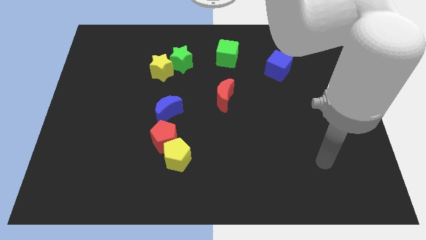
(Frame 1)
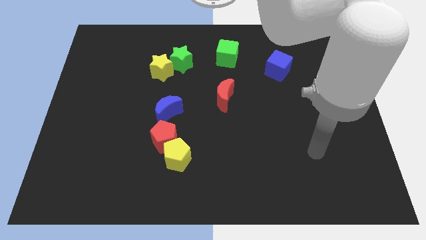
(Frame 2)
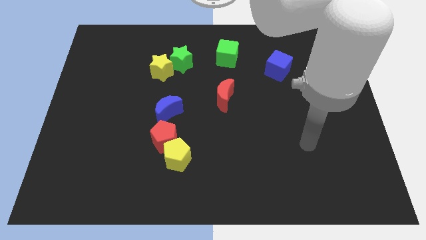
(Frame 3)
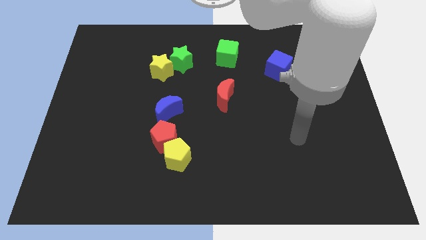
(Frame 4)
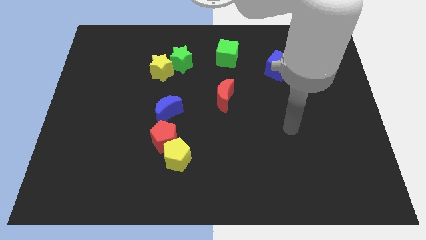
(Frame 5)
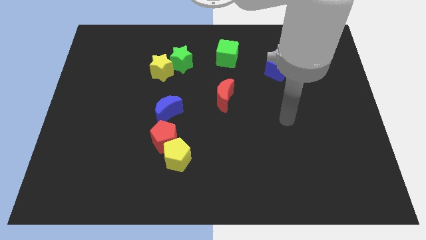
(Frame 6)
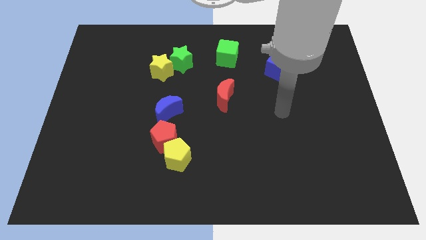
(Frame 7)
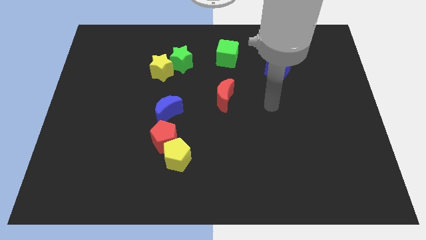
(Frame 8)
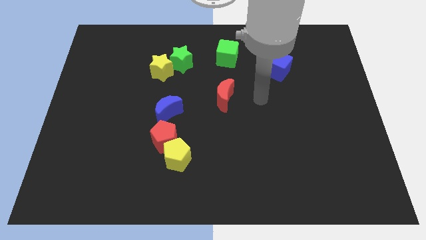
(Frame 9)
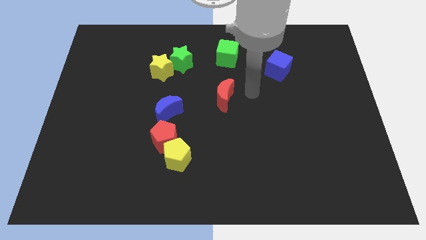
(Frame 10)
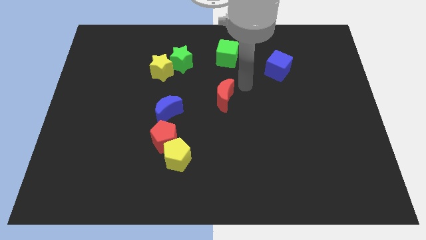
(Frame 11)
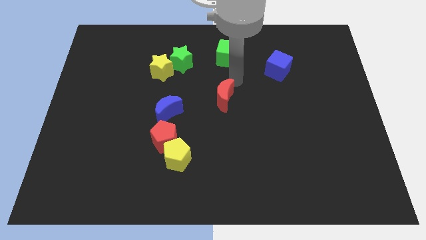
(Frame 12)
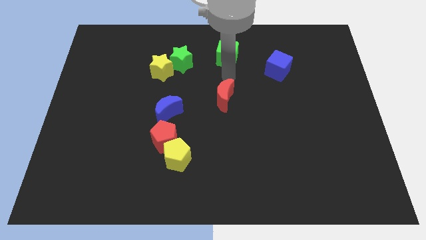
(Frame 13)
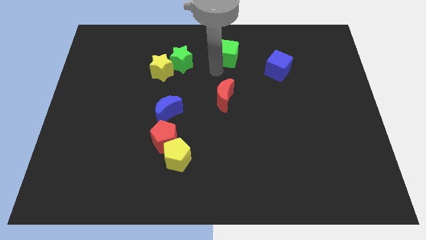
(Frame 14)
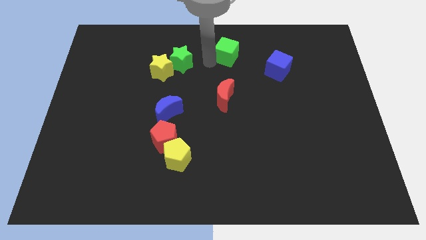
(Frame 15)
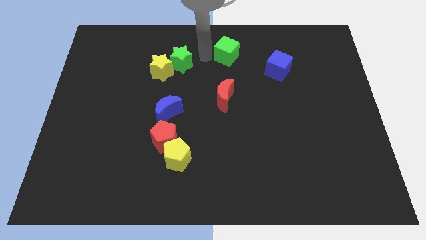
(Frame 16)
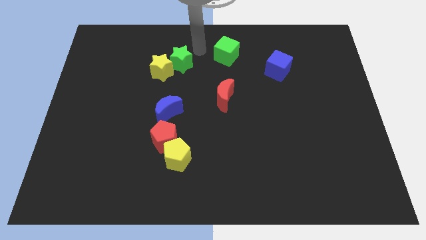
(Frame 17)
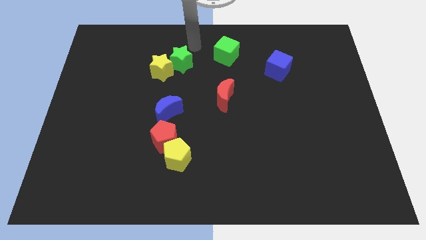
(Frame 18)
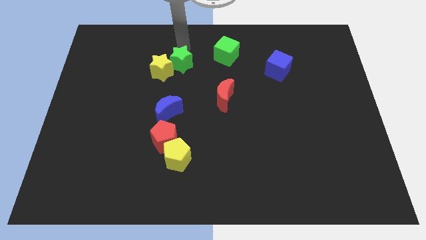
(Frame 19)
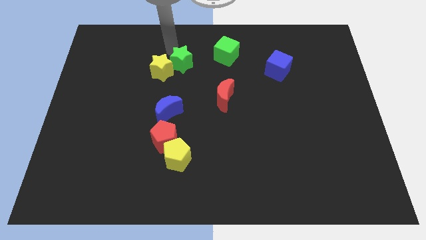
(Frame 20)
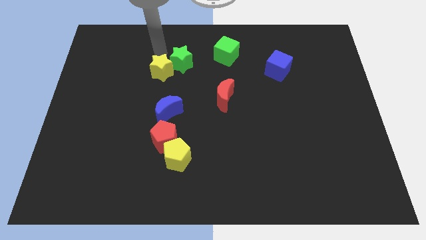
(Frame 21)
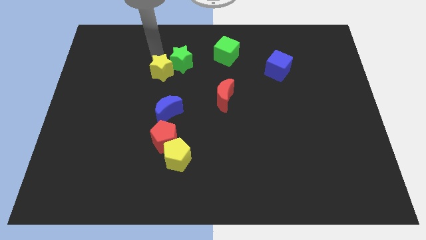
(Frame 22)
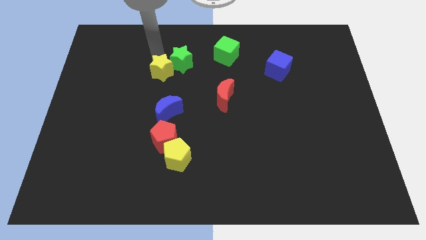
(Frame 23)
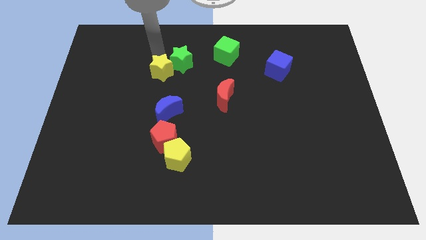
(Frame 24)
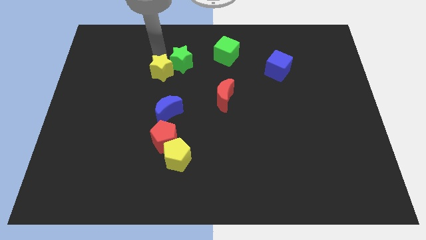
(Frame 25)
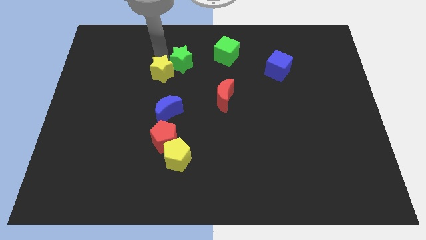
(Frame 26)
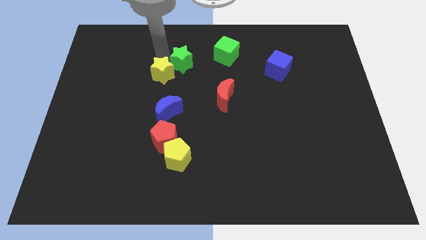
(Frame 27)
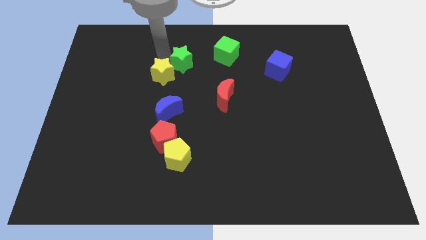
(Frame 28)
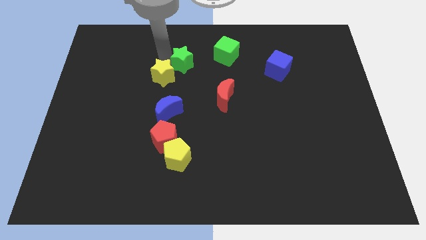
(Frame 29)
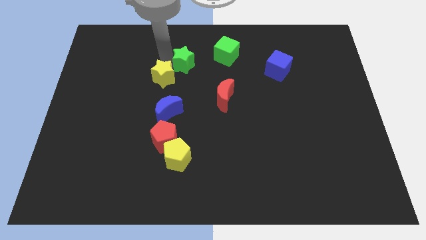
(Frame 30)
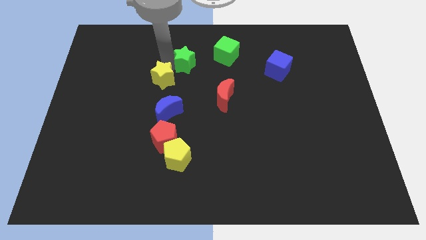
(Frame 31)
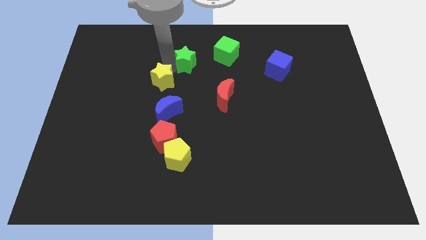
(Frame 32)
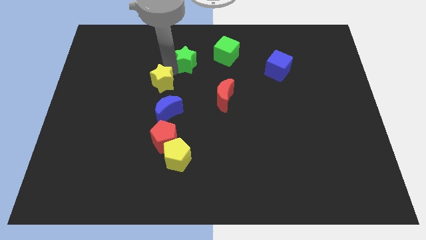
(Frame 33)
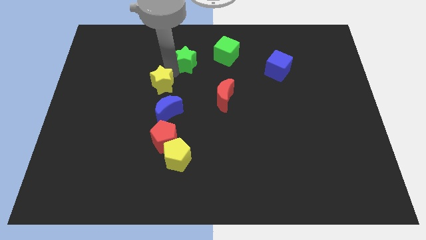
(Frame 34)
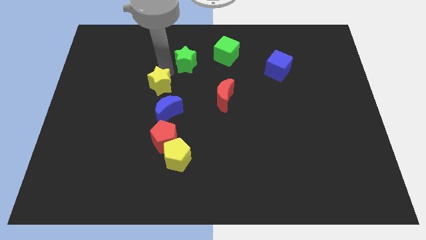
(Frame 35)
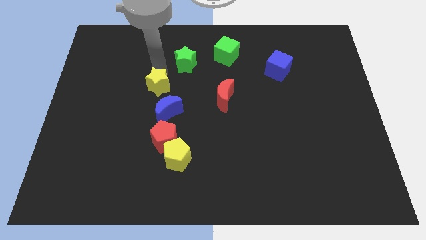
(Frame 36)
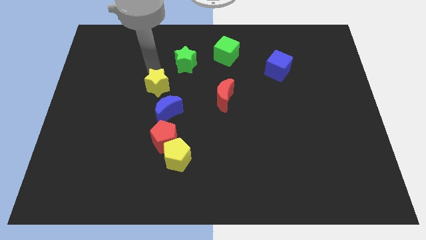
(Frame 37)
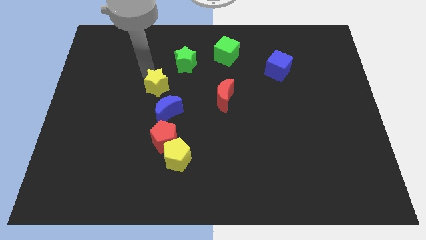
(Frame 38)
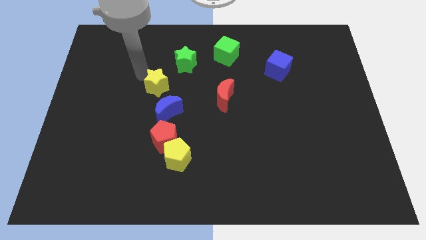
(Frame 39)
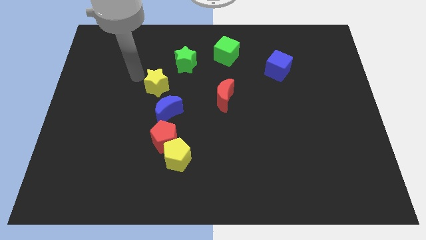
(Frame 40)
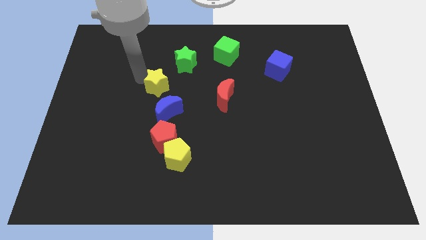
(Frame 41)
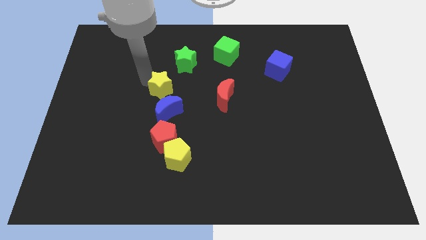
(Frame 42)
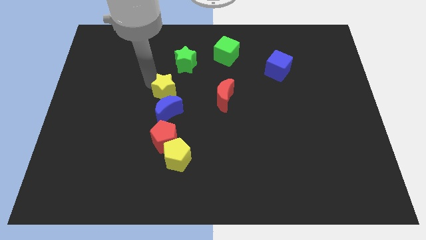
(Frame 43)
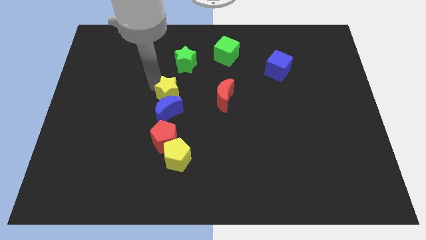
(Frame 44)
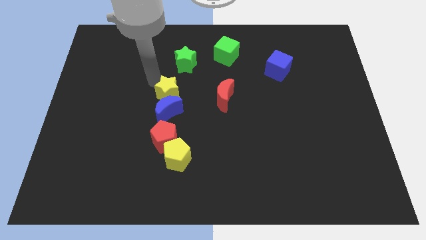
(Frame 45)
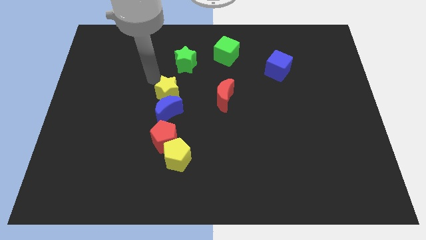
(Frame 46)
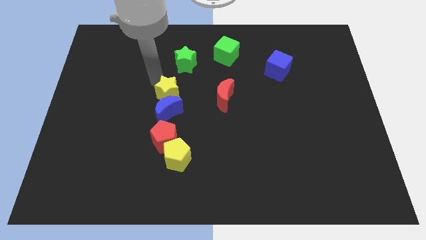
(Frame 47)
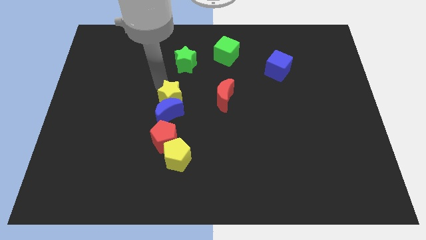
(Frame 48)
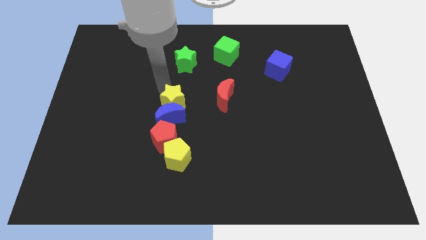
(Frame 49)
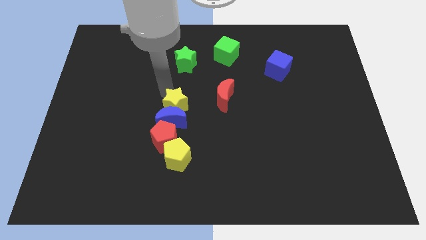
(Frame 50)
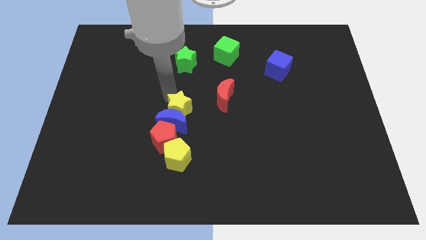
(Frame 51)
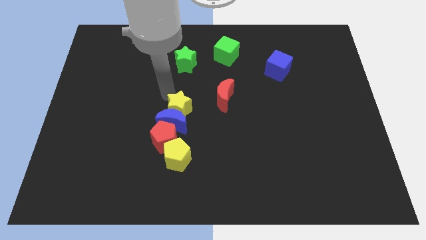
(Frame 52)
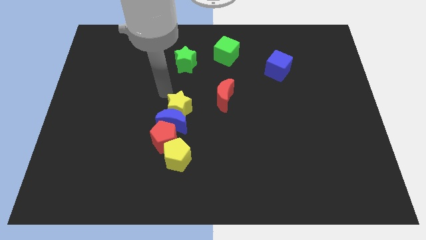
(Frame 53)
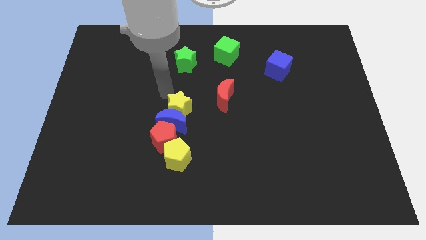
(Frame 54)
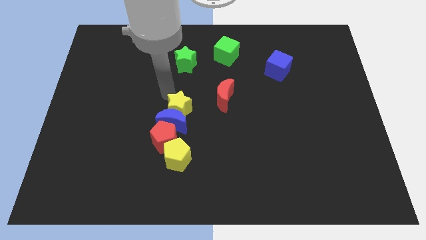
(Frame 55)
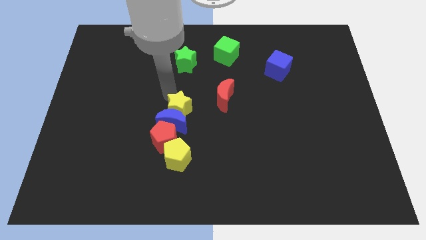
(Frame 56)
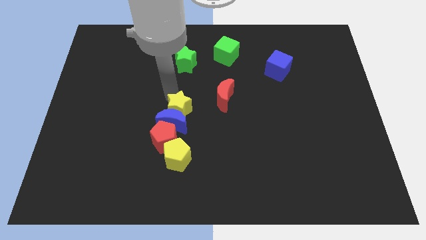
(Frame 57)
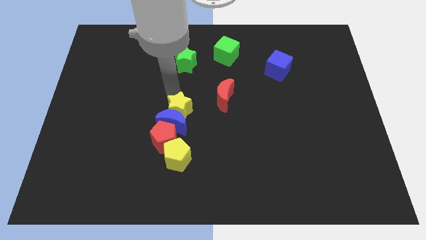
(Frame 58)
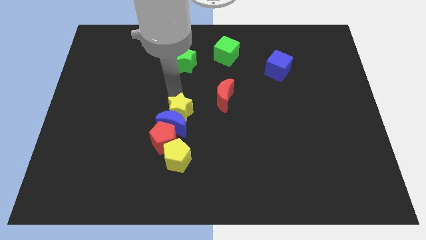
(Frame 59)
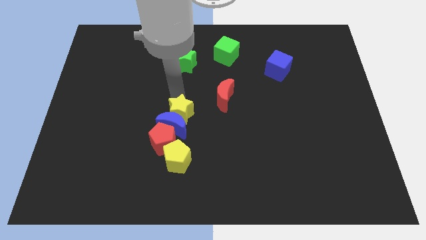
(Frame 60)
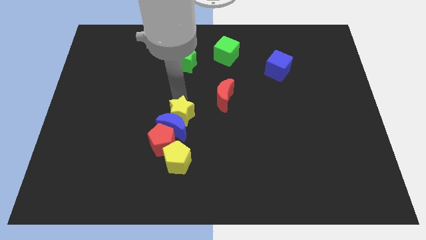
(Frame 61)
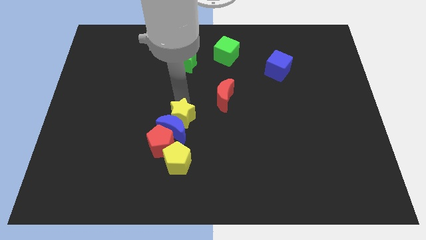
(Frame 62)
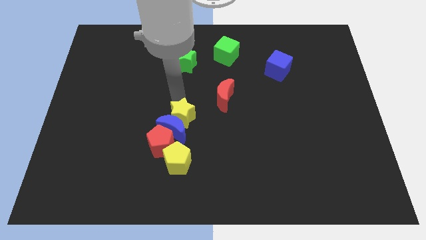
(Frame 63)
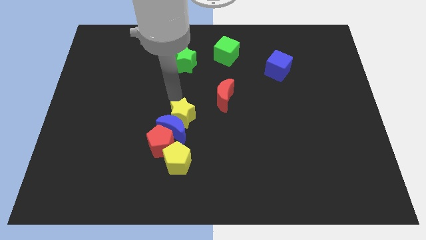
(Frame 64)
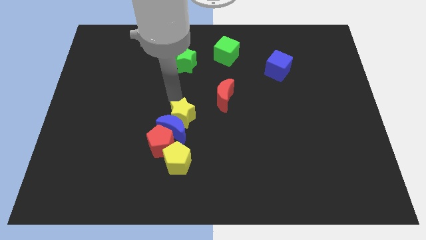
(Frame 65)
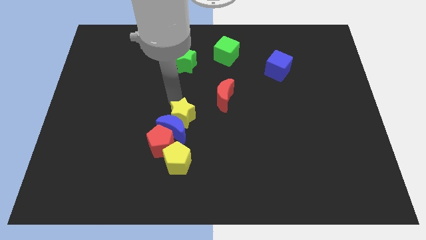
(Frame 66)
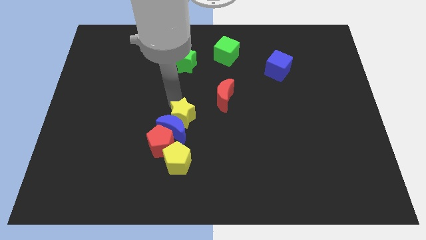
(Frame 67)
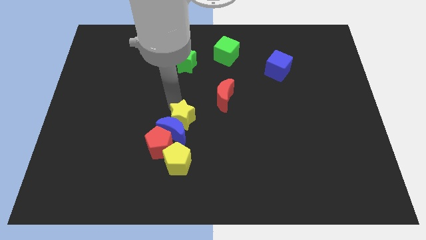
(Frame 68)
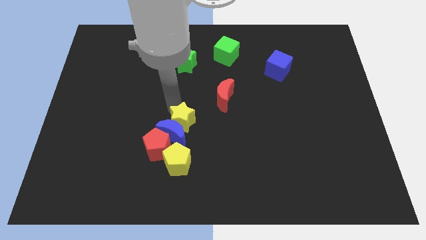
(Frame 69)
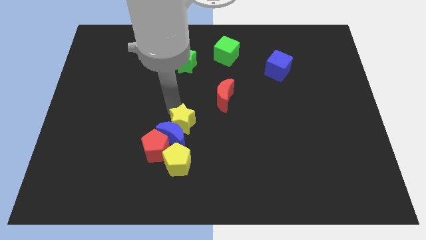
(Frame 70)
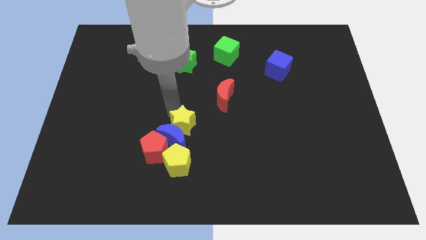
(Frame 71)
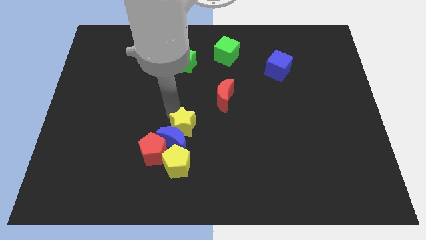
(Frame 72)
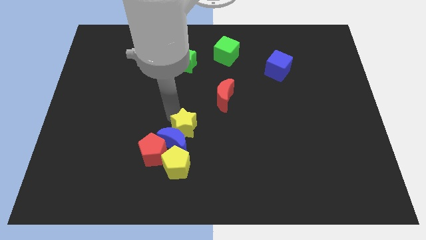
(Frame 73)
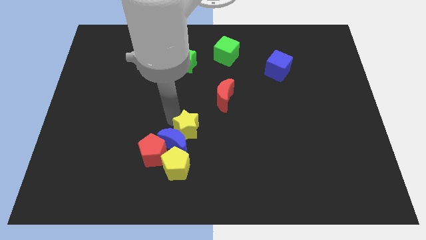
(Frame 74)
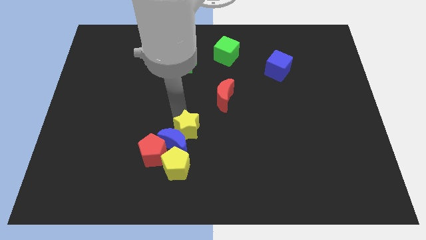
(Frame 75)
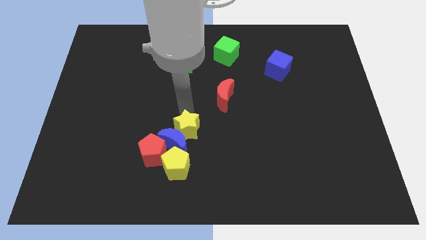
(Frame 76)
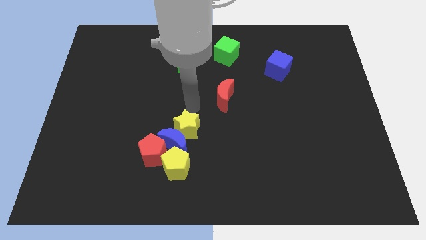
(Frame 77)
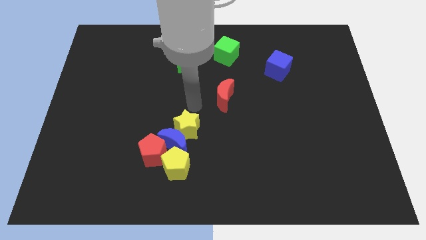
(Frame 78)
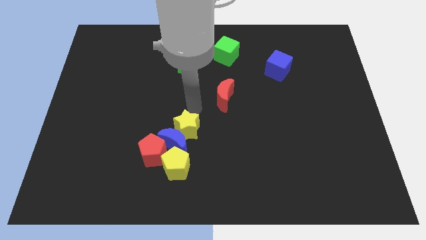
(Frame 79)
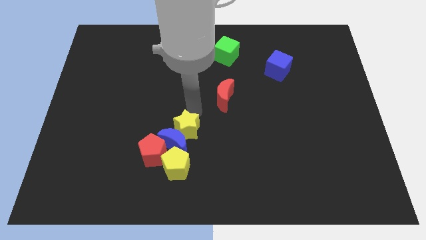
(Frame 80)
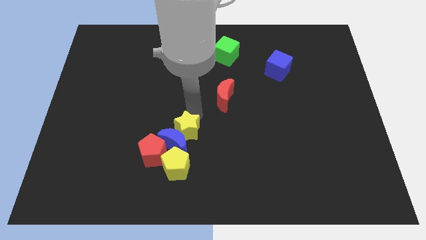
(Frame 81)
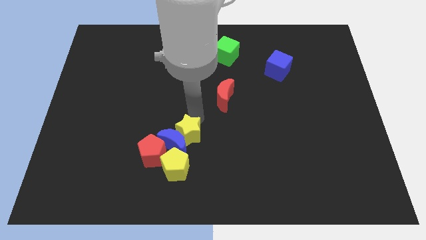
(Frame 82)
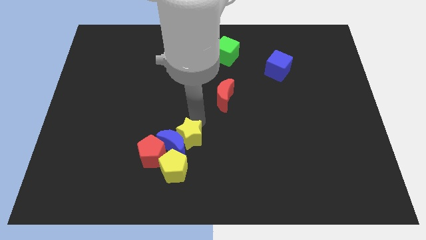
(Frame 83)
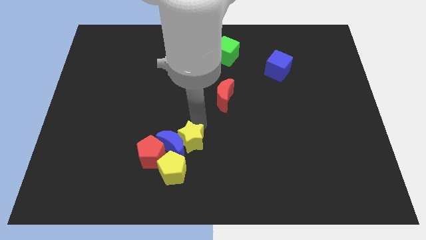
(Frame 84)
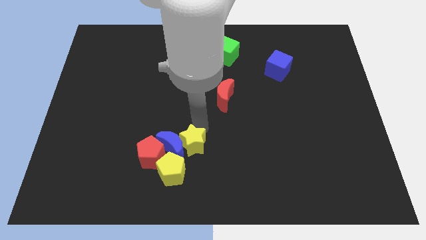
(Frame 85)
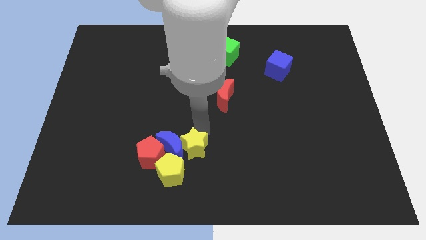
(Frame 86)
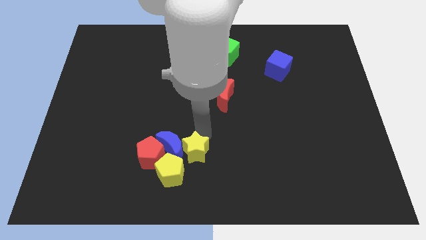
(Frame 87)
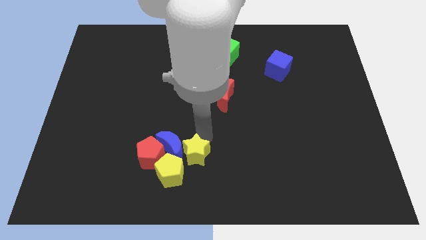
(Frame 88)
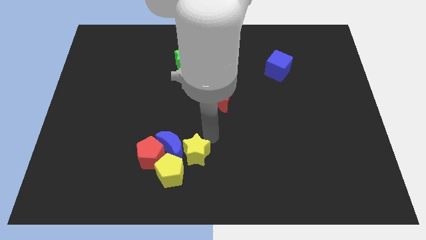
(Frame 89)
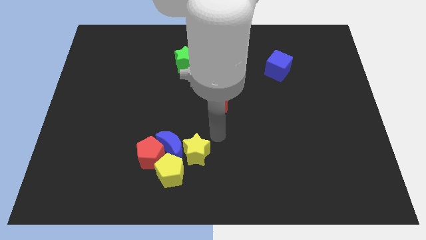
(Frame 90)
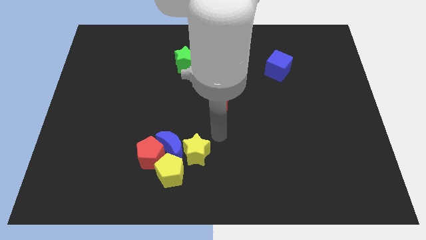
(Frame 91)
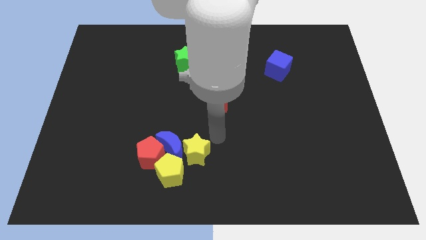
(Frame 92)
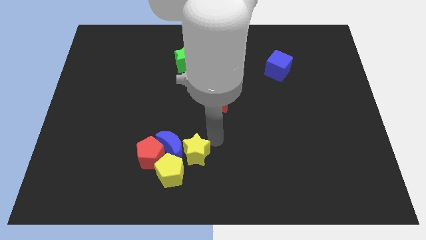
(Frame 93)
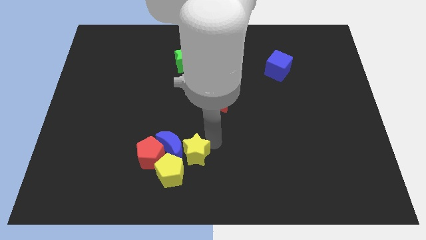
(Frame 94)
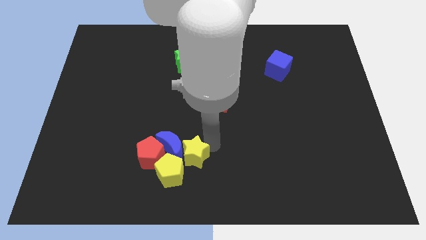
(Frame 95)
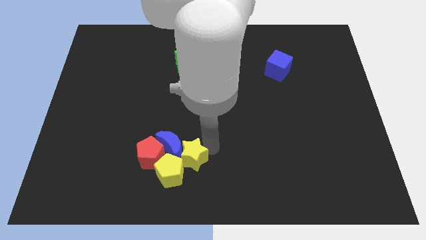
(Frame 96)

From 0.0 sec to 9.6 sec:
move the yellow star next to the yellow pentagon
